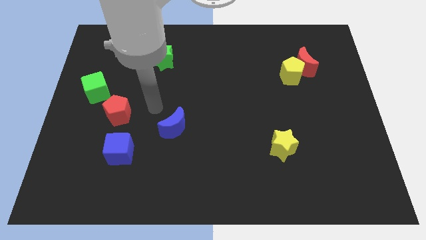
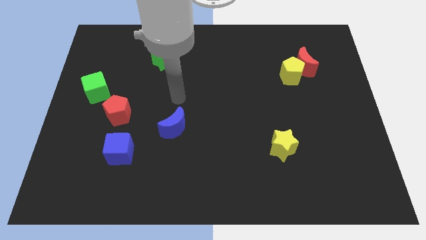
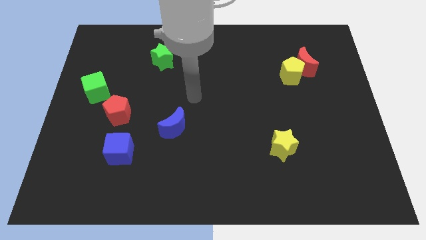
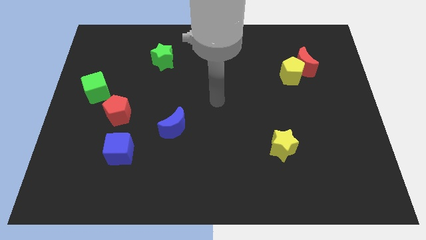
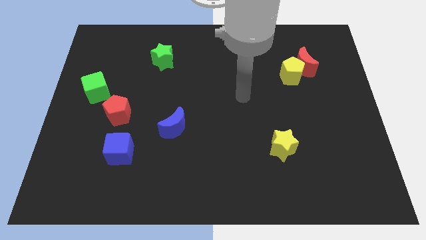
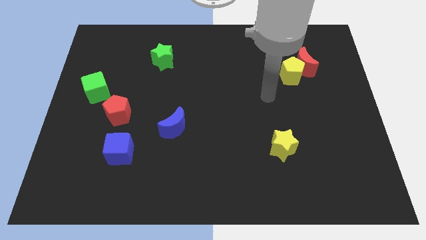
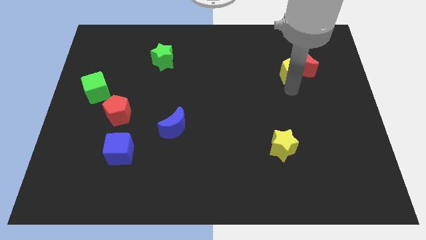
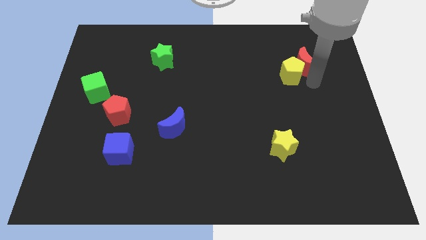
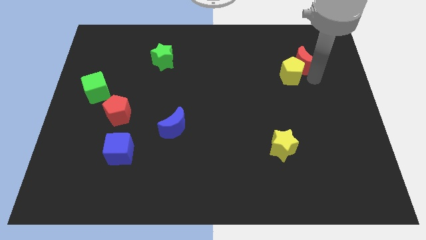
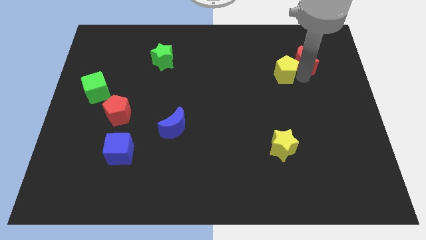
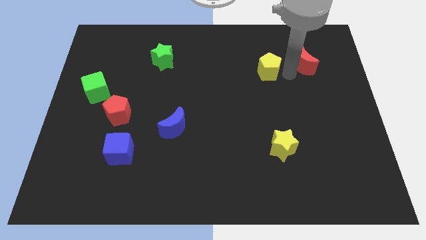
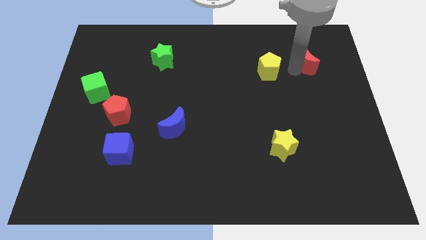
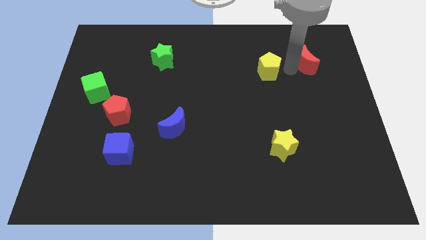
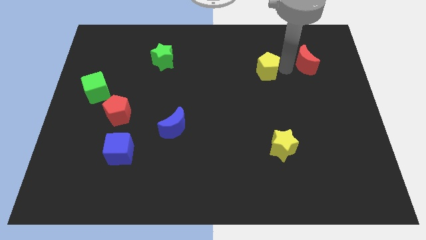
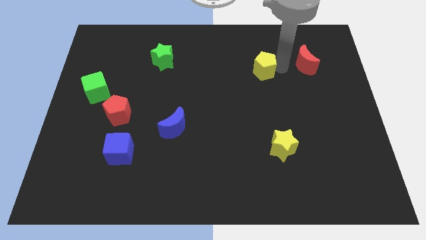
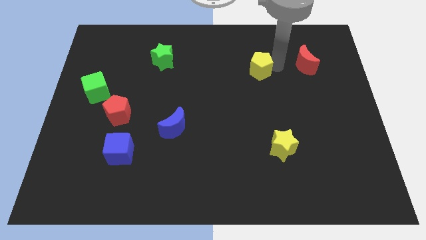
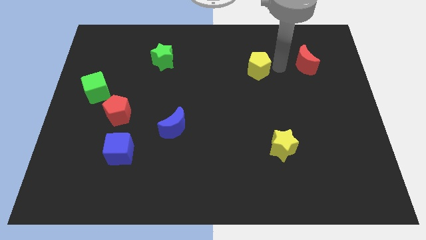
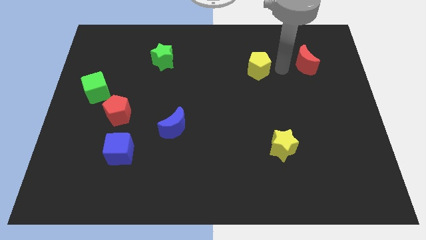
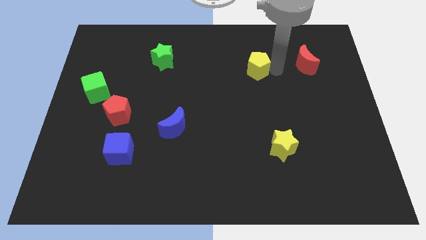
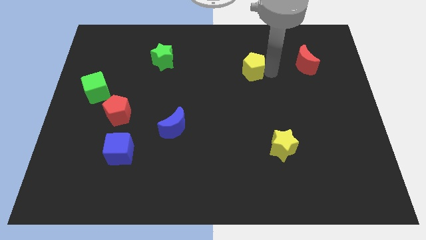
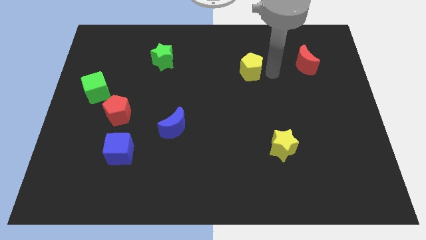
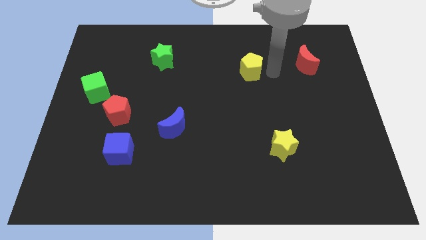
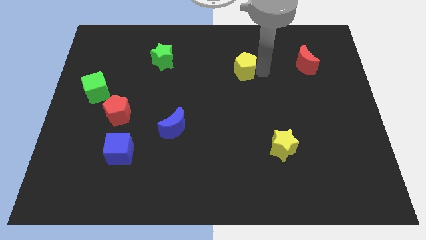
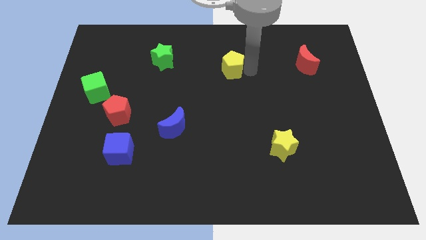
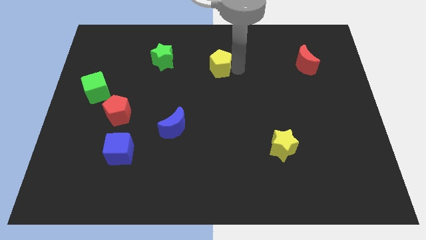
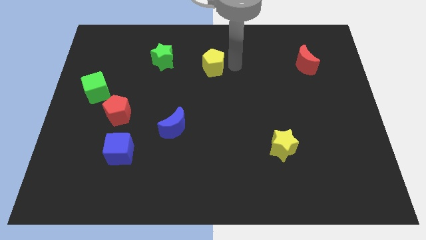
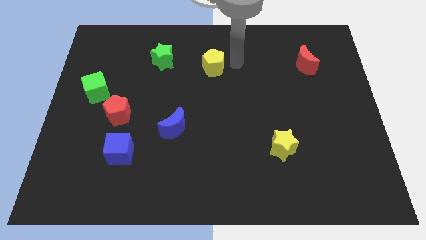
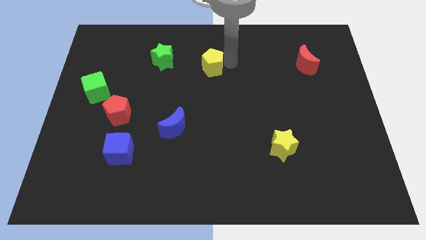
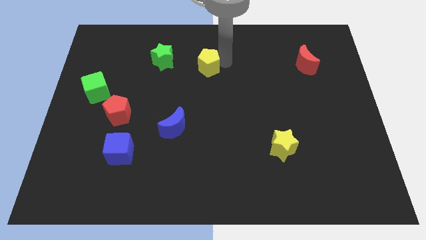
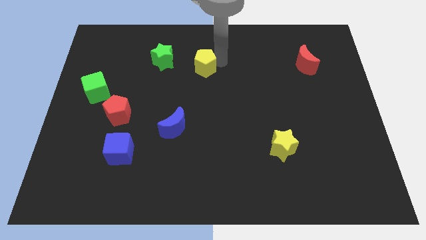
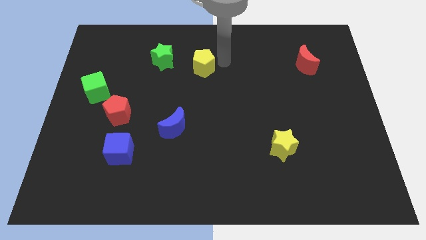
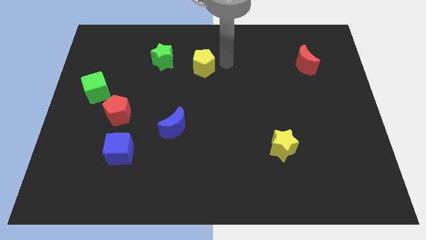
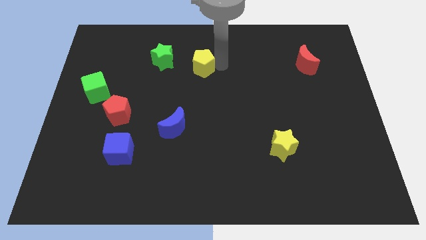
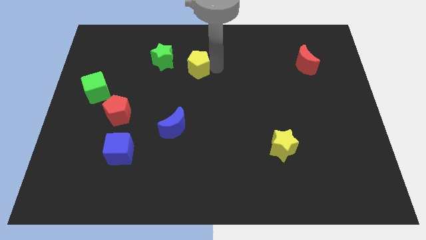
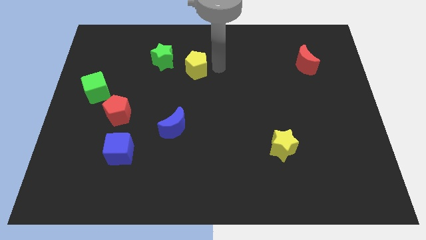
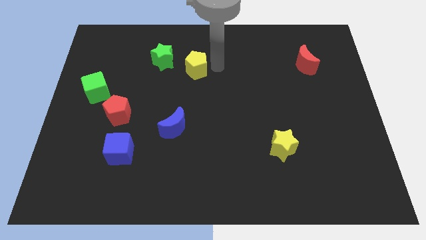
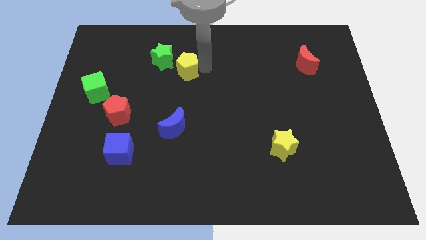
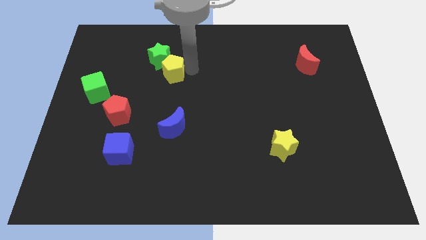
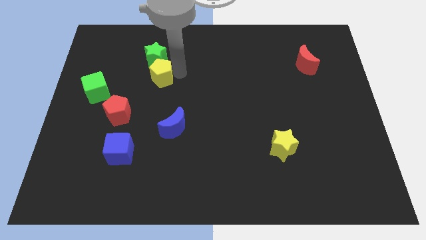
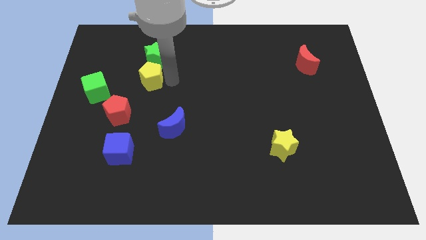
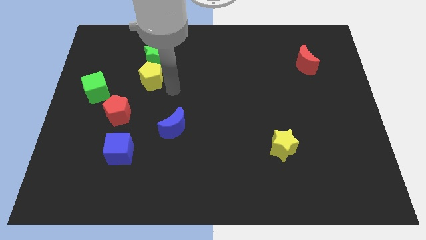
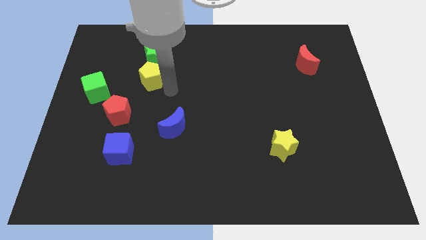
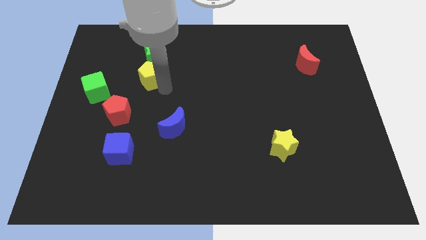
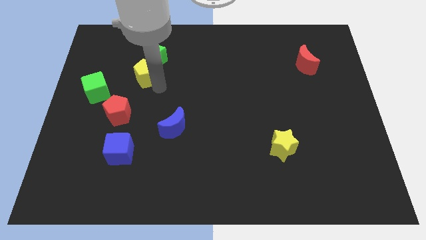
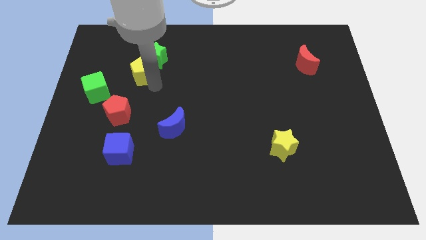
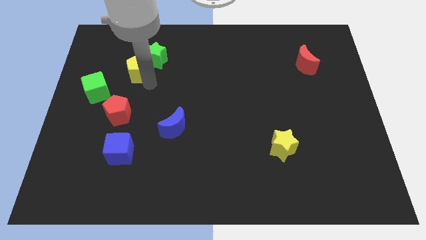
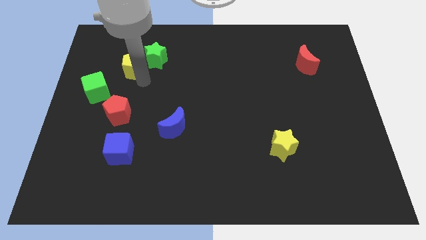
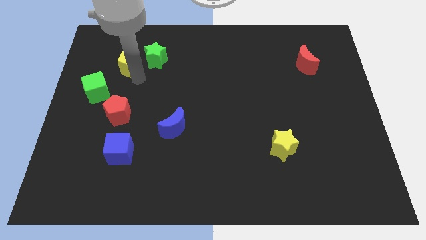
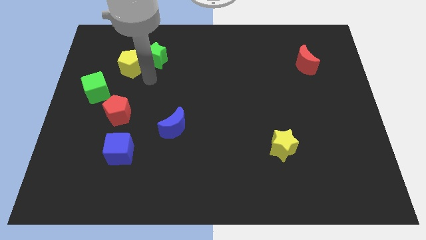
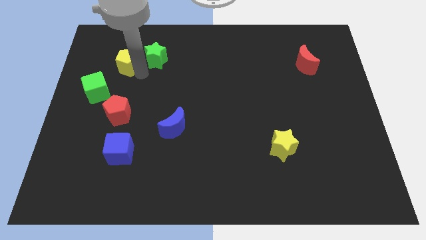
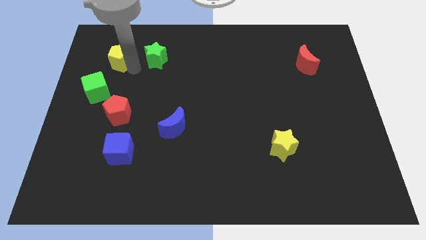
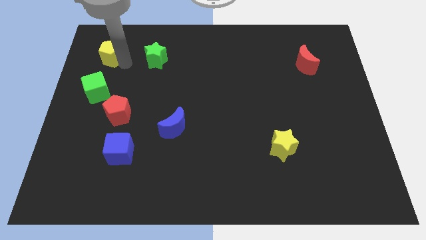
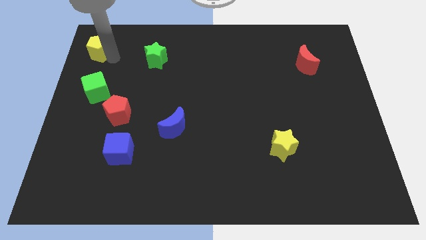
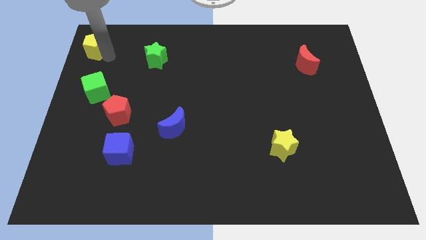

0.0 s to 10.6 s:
put the yellow pentagon to the top left corner

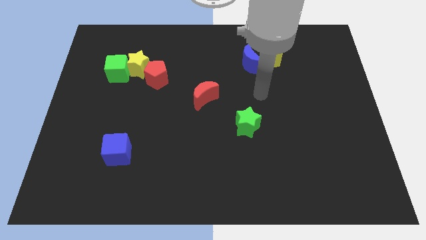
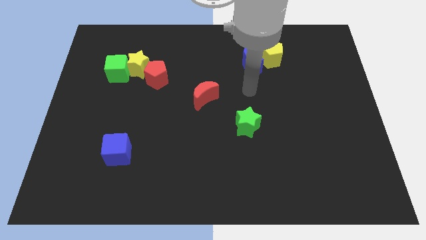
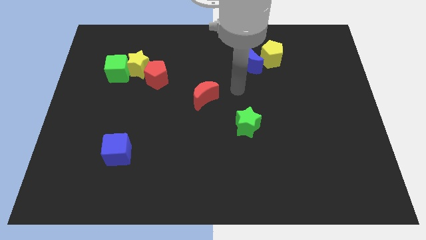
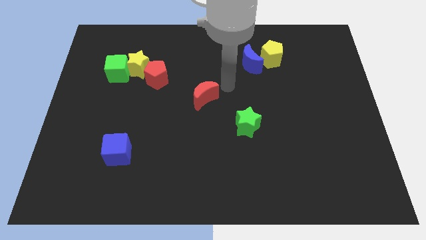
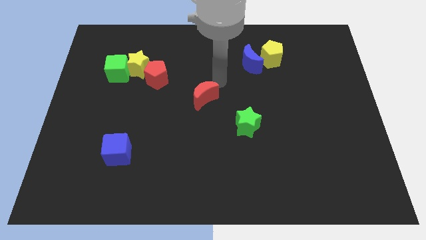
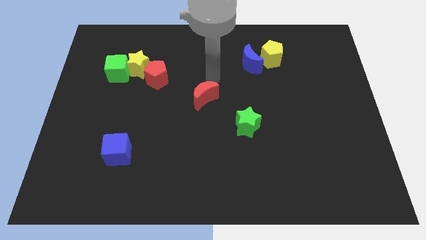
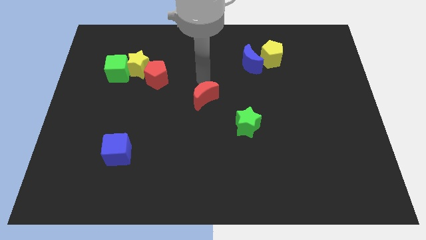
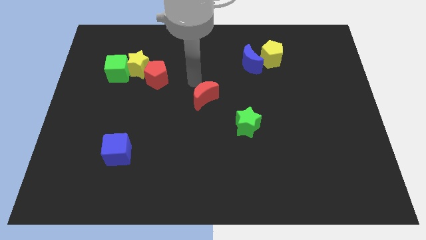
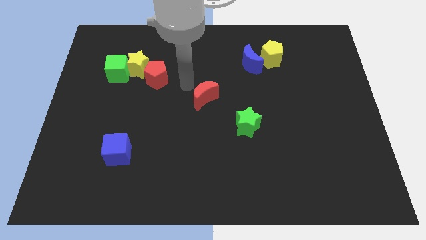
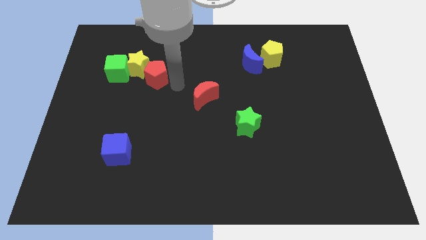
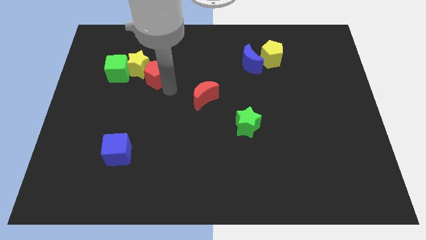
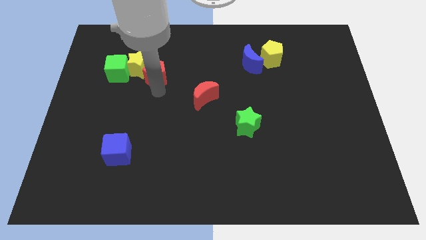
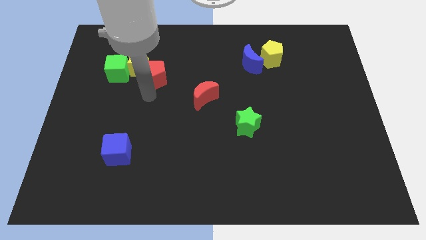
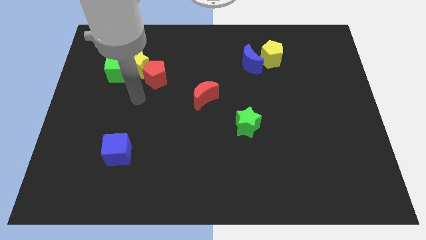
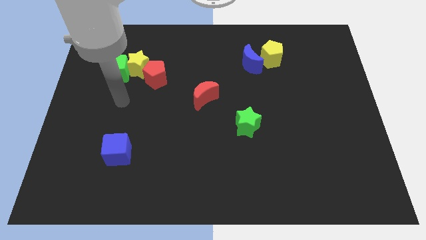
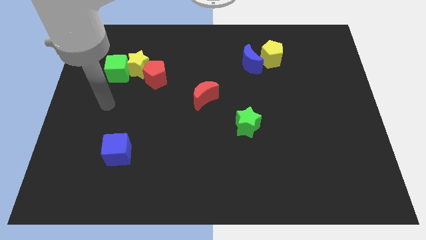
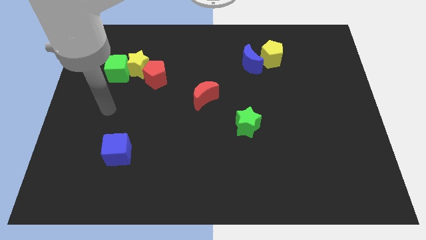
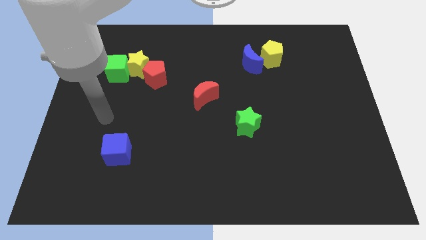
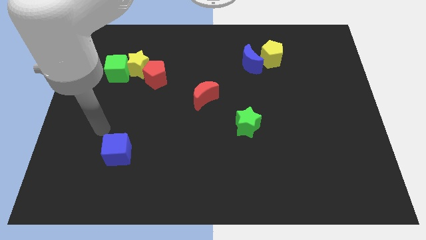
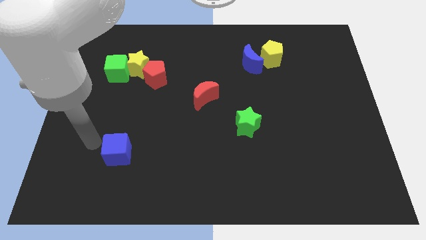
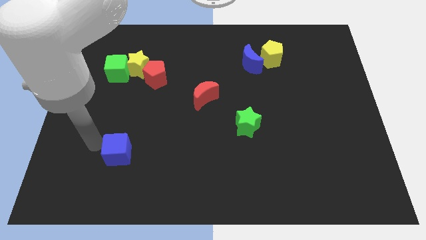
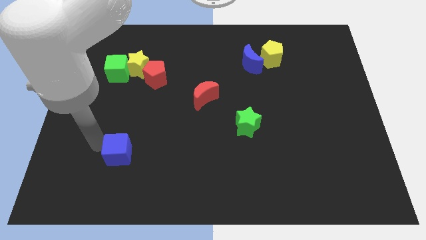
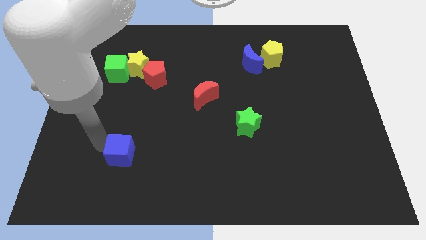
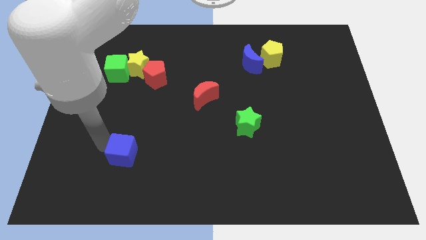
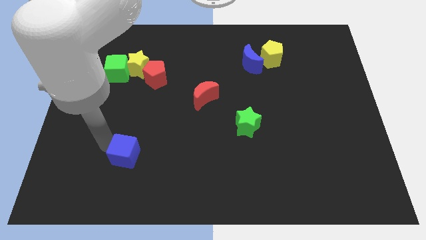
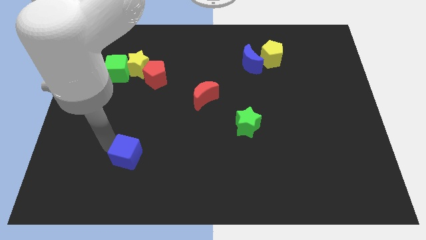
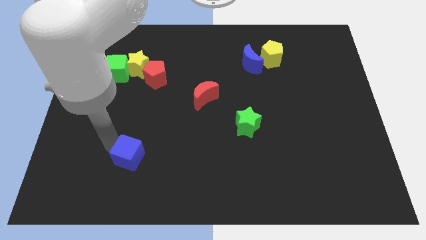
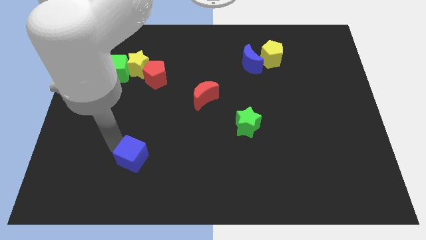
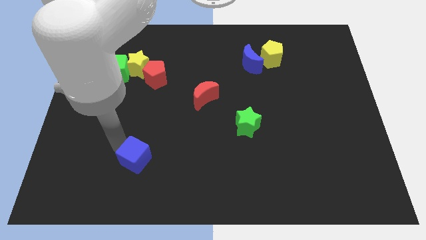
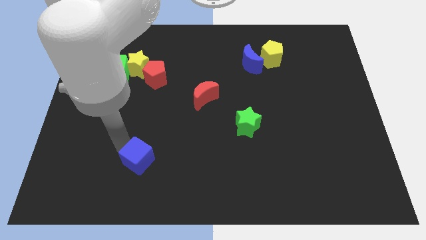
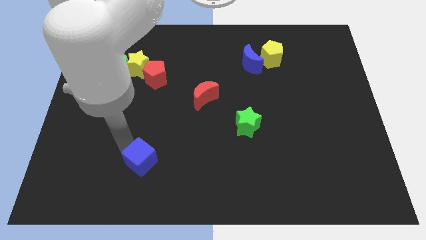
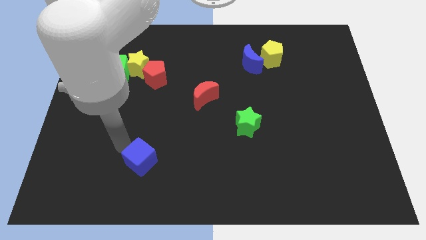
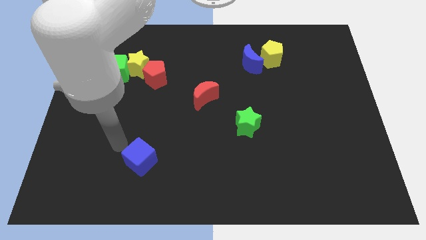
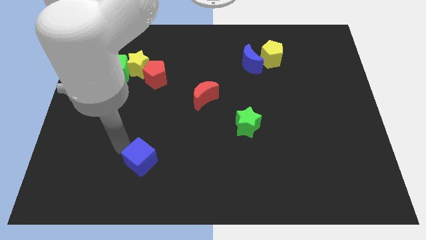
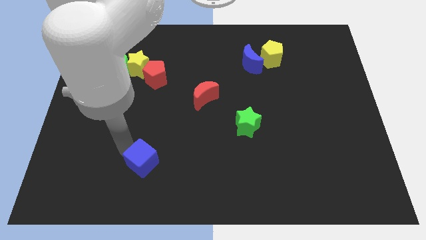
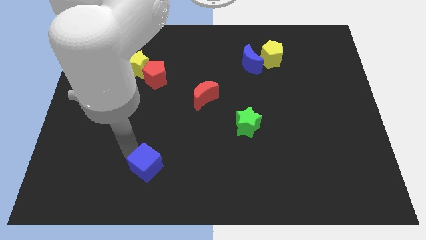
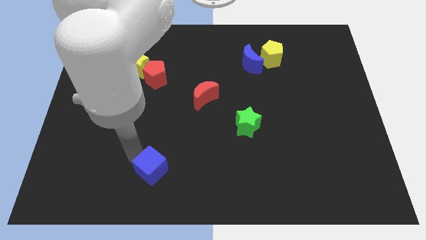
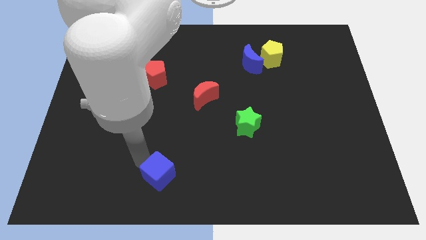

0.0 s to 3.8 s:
push the blue cube to the bottom side
